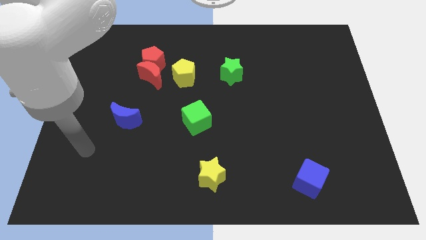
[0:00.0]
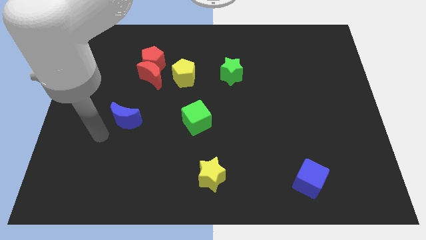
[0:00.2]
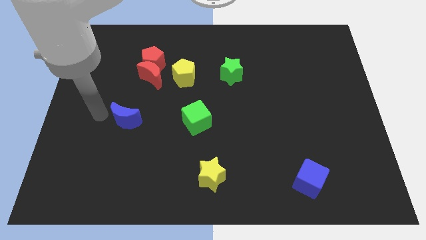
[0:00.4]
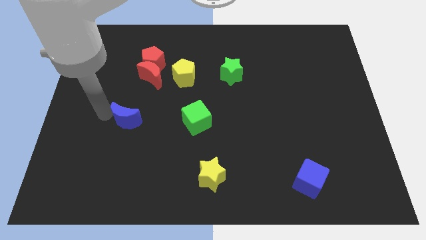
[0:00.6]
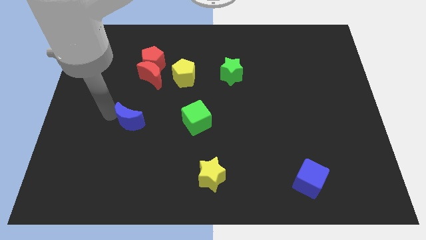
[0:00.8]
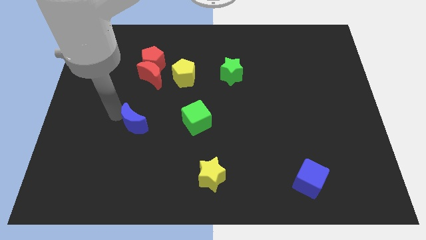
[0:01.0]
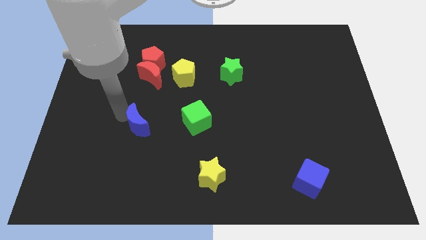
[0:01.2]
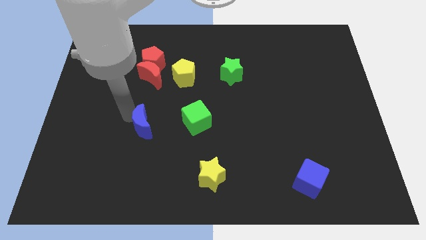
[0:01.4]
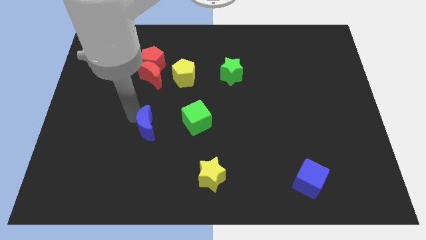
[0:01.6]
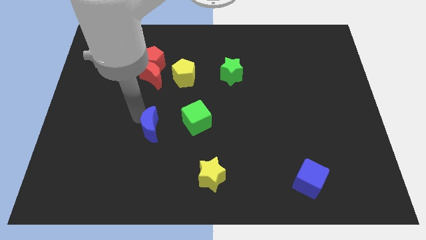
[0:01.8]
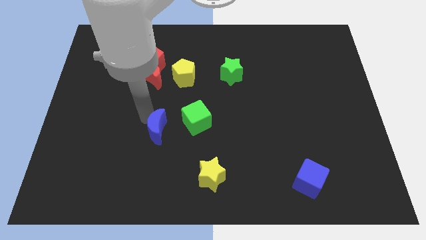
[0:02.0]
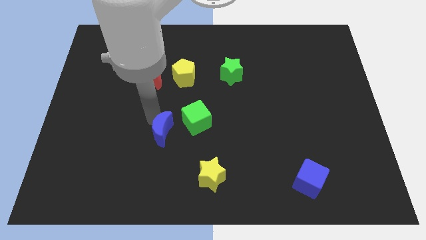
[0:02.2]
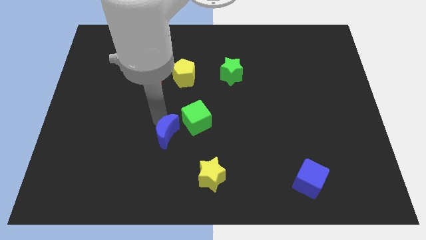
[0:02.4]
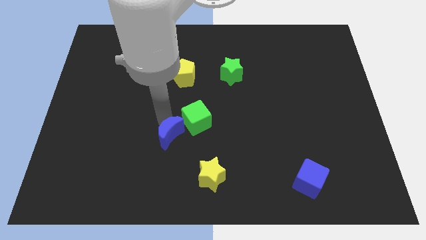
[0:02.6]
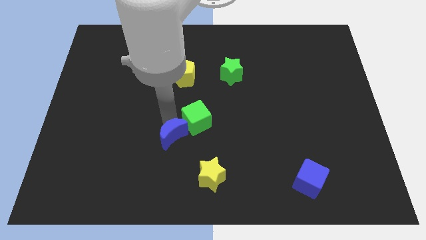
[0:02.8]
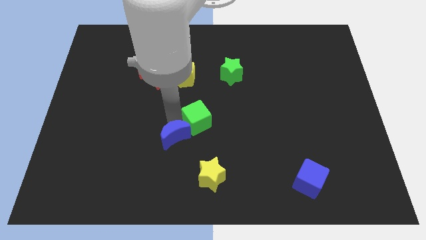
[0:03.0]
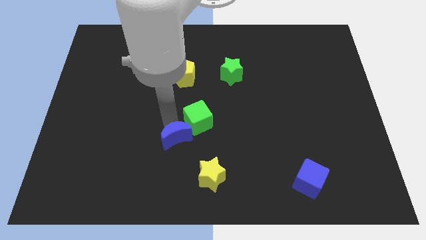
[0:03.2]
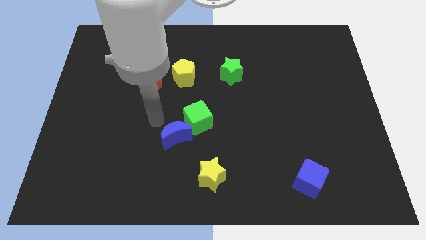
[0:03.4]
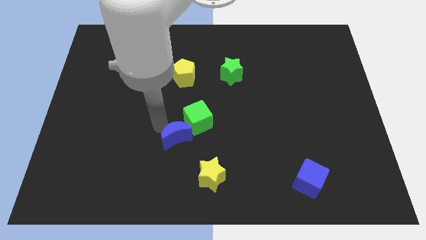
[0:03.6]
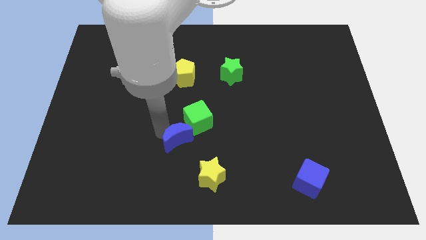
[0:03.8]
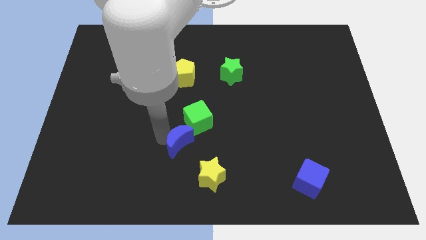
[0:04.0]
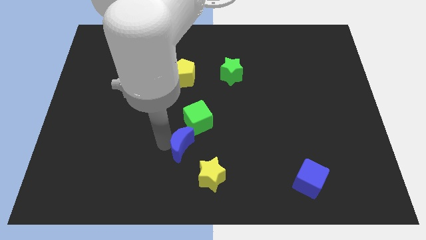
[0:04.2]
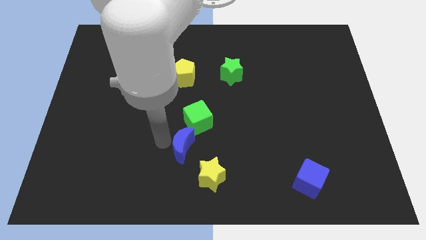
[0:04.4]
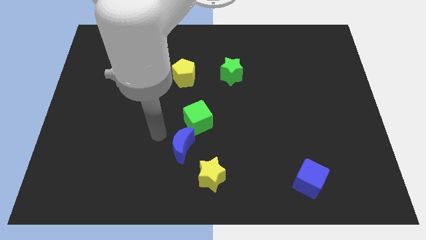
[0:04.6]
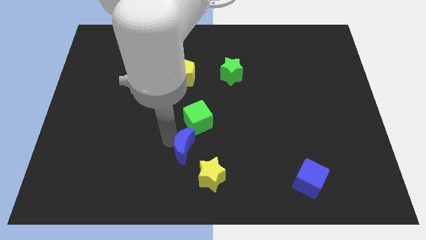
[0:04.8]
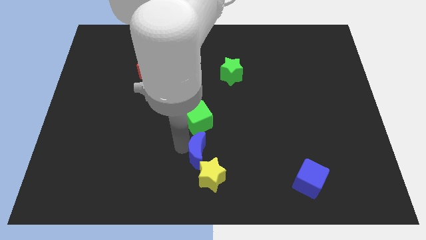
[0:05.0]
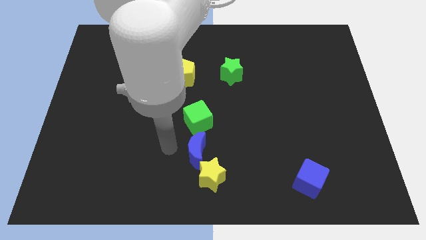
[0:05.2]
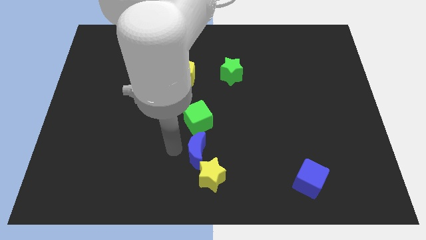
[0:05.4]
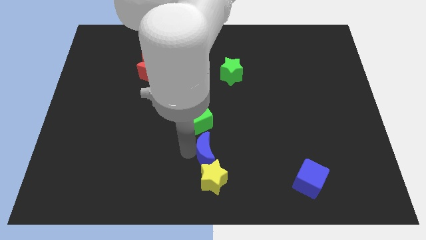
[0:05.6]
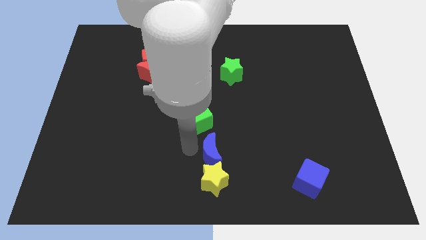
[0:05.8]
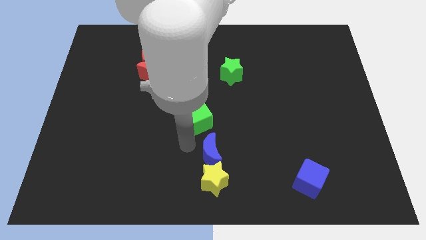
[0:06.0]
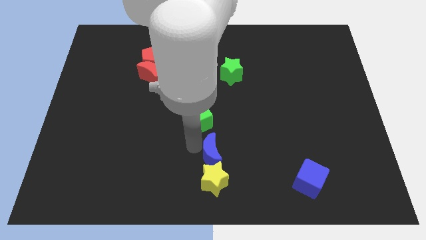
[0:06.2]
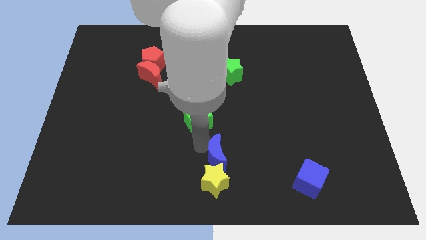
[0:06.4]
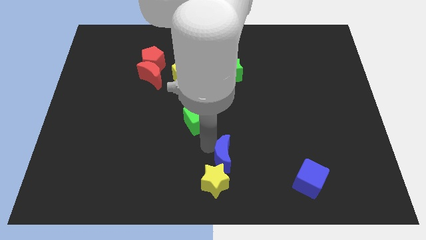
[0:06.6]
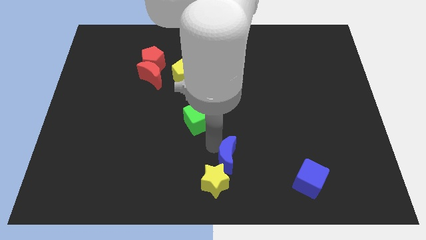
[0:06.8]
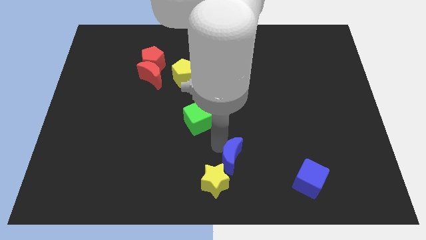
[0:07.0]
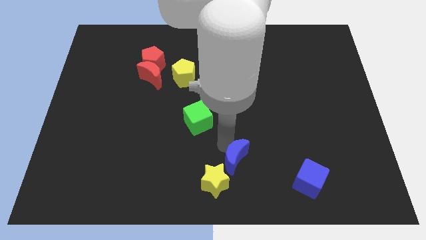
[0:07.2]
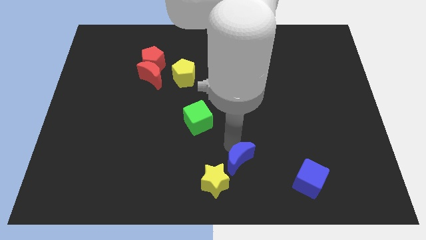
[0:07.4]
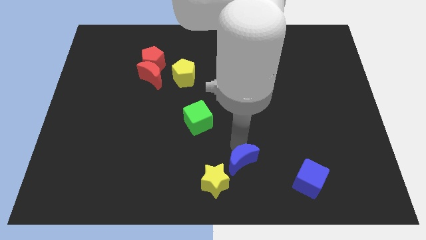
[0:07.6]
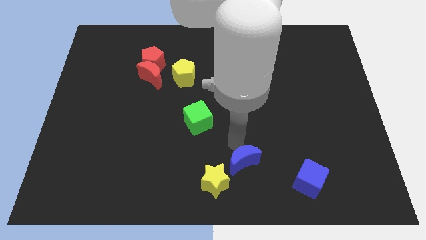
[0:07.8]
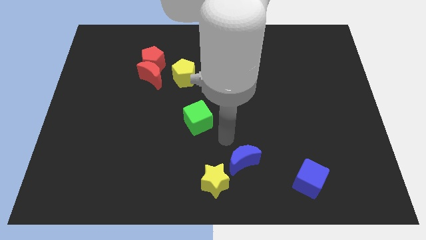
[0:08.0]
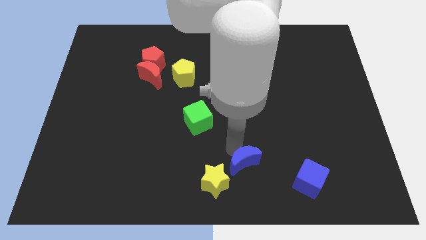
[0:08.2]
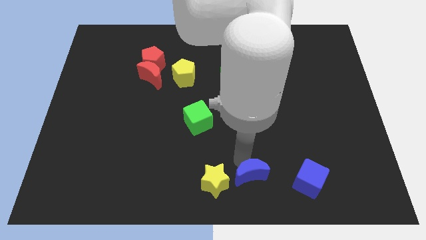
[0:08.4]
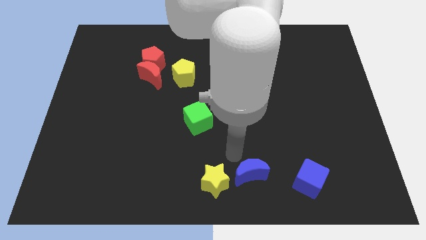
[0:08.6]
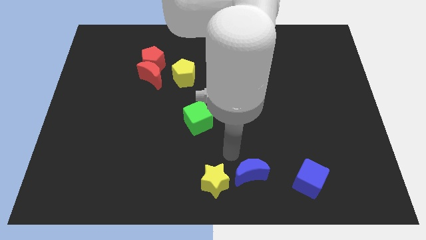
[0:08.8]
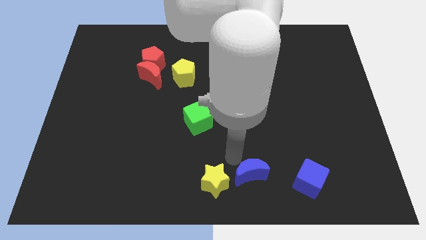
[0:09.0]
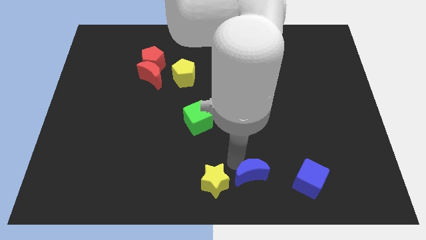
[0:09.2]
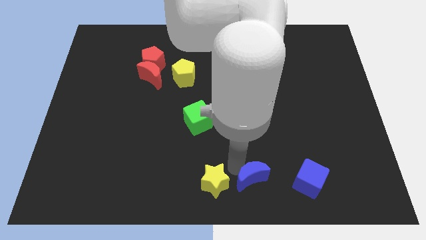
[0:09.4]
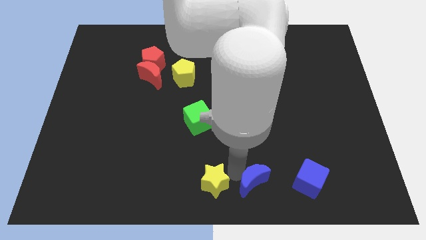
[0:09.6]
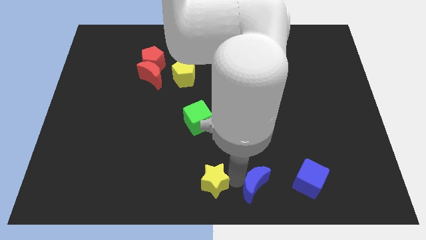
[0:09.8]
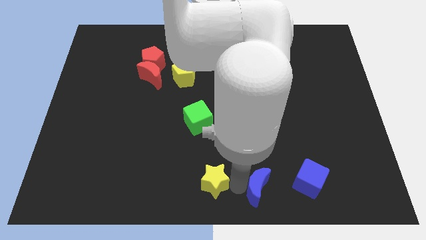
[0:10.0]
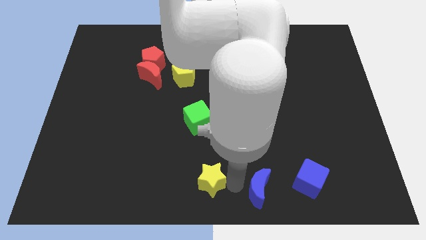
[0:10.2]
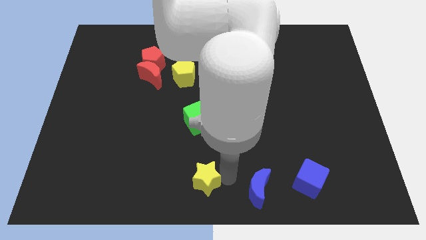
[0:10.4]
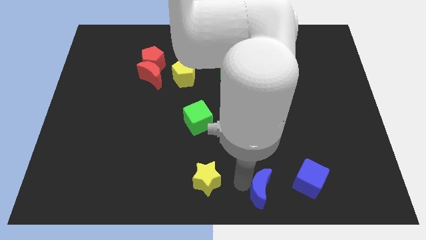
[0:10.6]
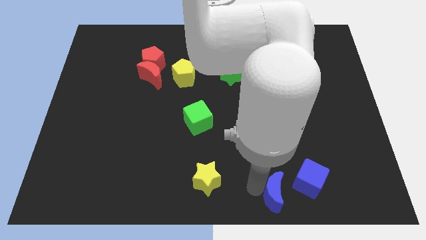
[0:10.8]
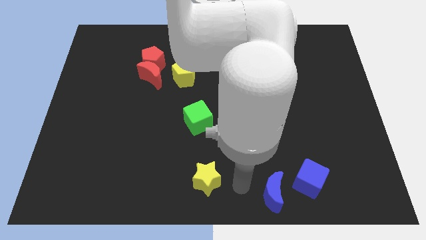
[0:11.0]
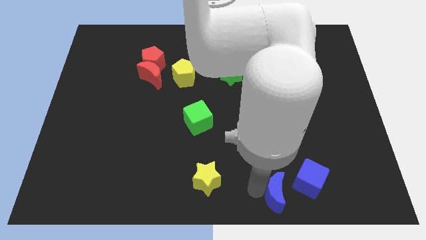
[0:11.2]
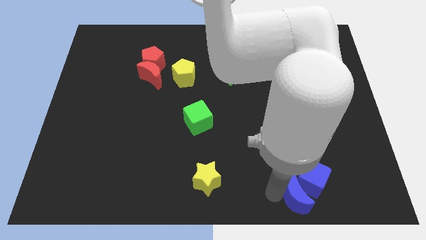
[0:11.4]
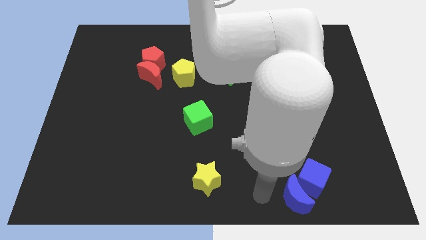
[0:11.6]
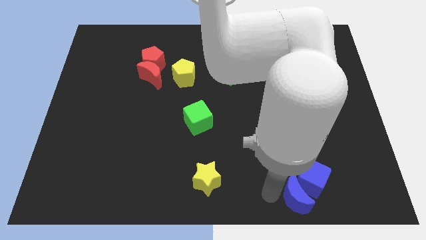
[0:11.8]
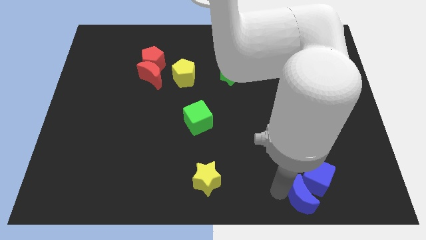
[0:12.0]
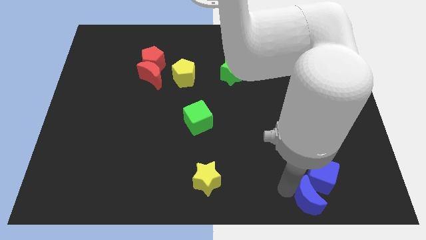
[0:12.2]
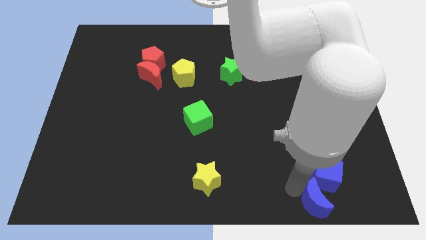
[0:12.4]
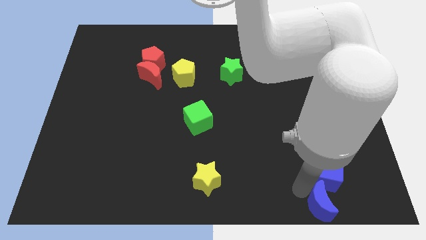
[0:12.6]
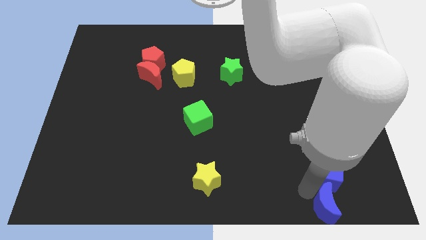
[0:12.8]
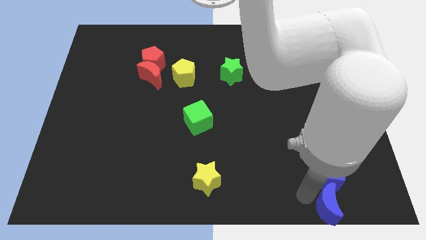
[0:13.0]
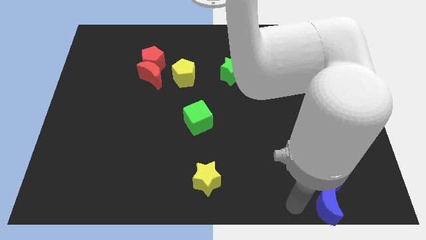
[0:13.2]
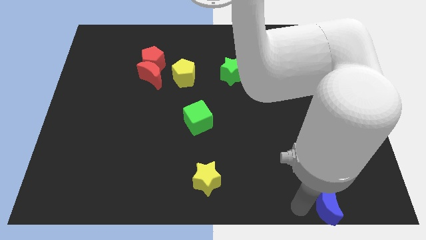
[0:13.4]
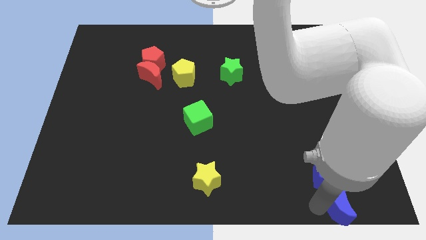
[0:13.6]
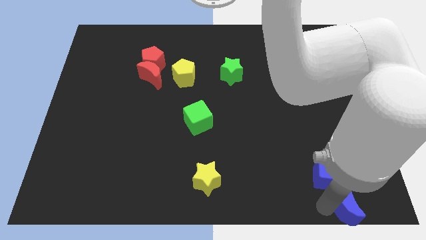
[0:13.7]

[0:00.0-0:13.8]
slide the blue moon to the bottom right corner
